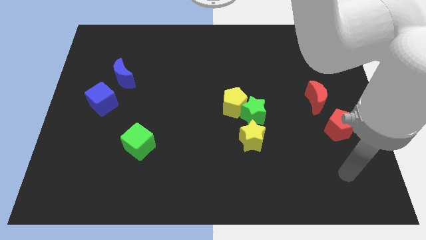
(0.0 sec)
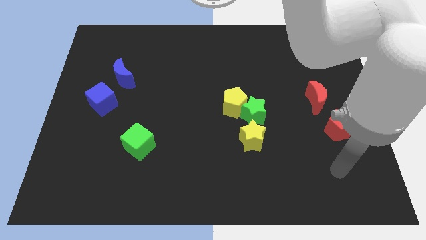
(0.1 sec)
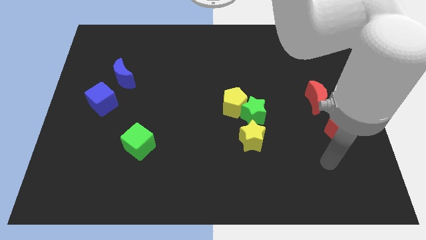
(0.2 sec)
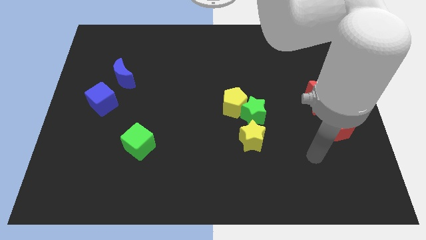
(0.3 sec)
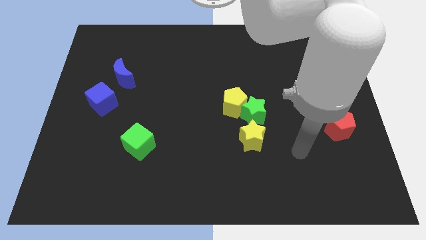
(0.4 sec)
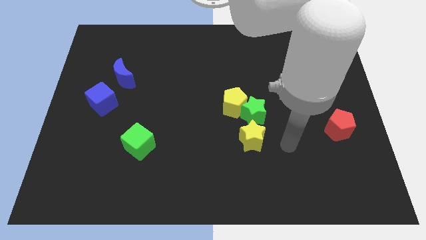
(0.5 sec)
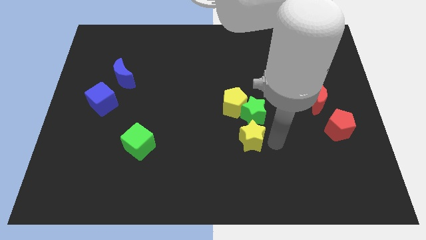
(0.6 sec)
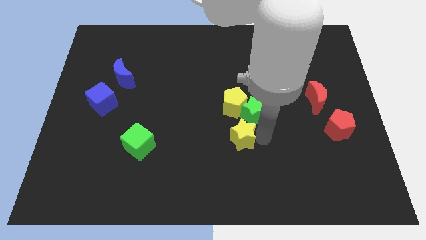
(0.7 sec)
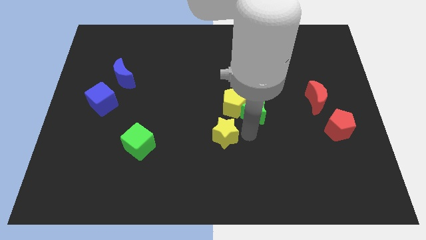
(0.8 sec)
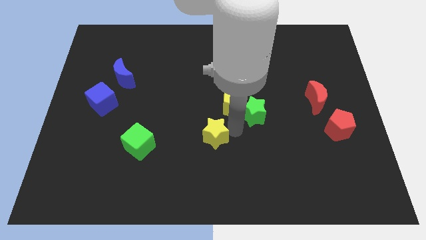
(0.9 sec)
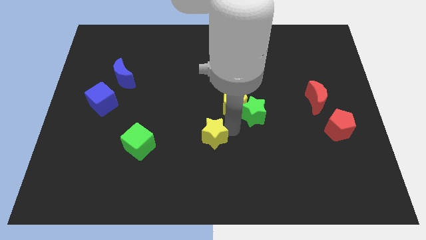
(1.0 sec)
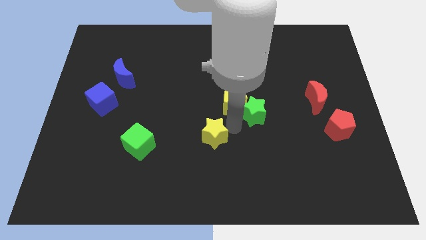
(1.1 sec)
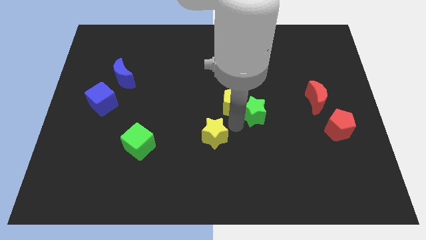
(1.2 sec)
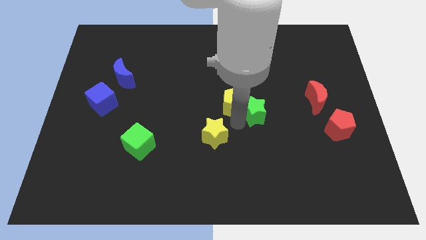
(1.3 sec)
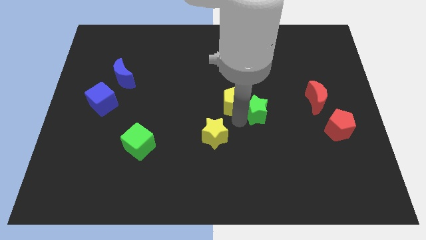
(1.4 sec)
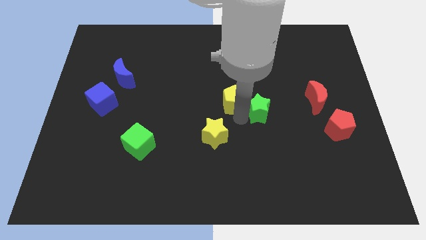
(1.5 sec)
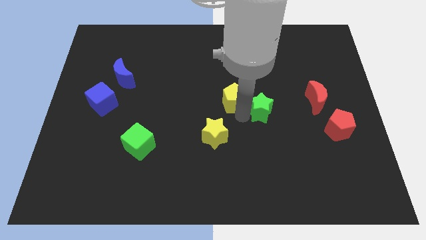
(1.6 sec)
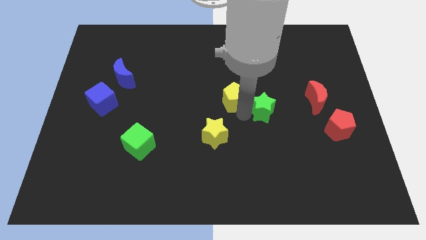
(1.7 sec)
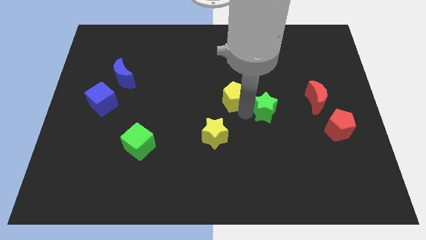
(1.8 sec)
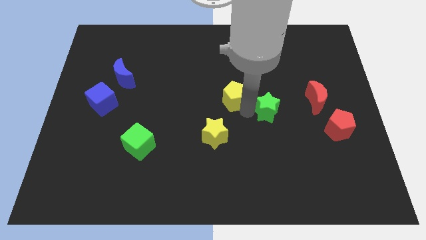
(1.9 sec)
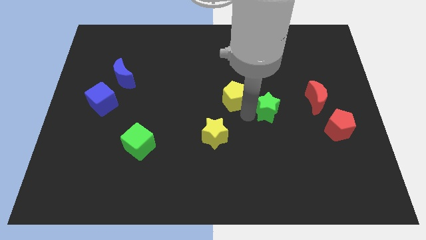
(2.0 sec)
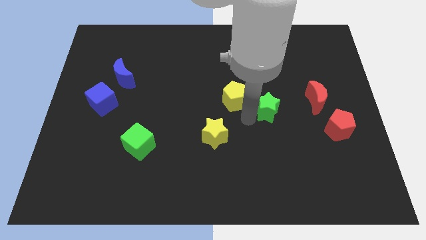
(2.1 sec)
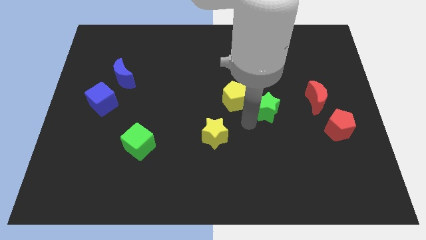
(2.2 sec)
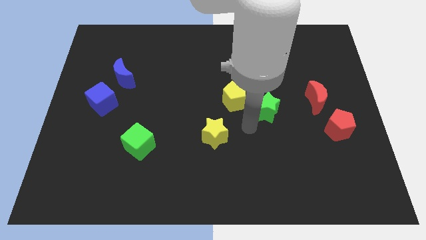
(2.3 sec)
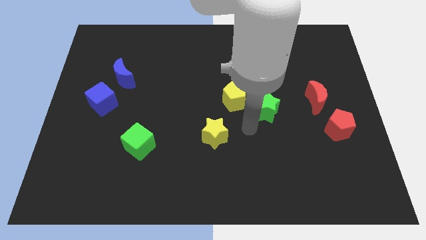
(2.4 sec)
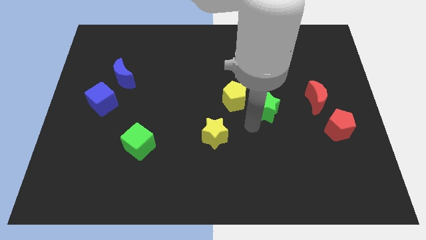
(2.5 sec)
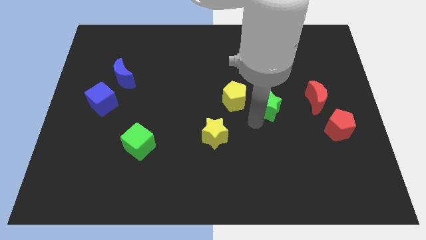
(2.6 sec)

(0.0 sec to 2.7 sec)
pull the green star apart from the yellow pentagon and yellow star

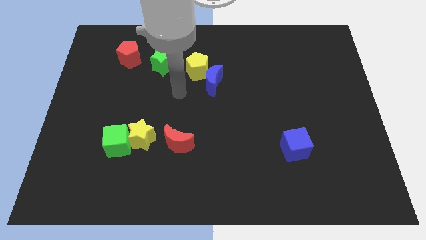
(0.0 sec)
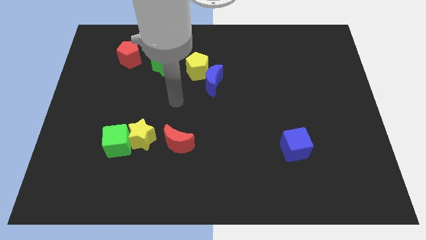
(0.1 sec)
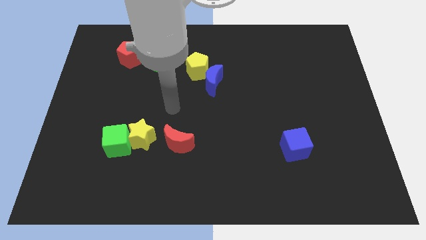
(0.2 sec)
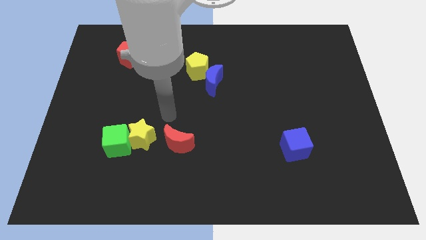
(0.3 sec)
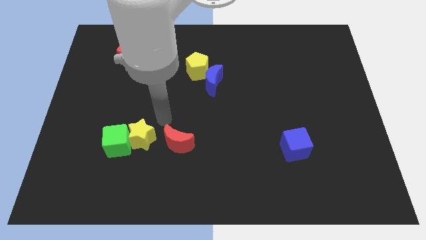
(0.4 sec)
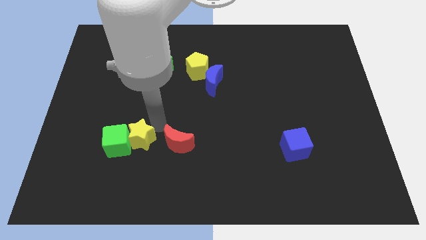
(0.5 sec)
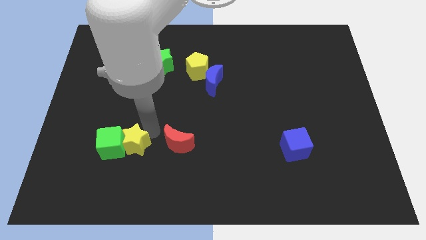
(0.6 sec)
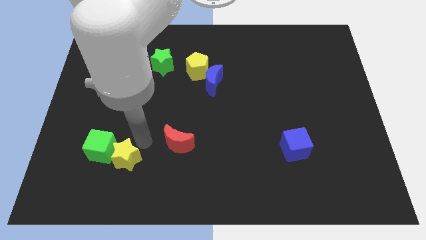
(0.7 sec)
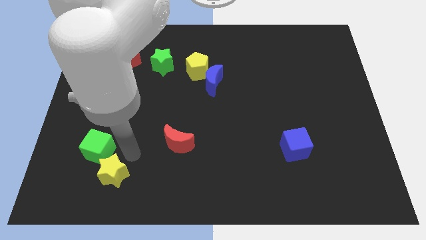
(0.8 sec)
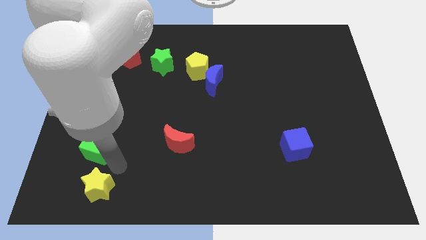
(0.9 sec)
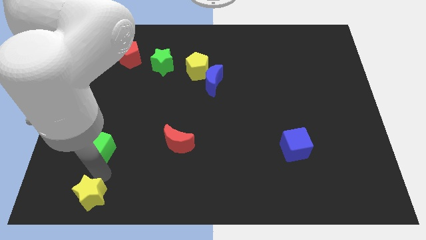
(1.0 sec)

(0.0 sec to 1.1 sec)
move the green cube away from the yellow star

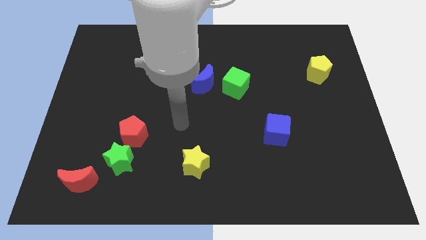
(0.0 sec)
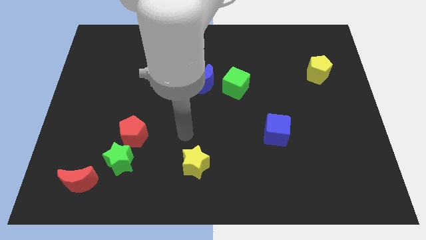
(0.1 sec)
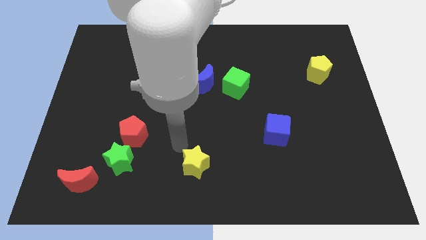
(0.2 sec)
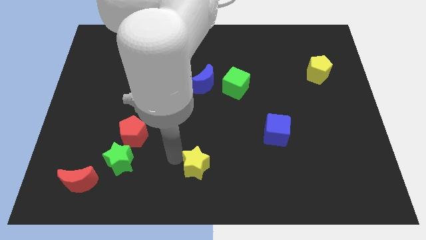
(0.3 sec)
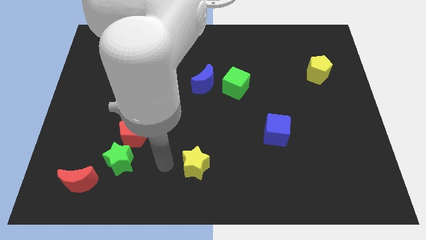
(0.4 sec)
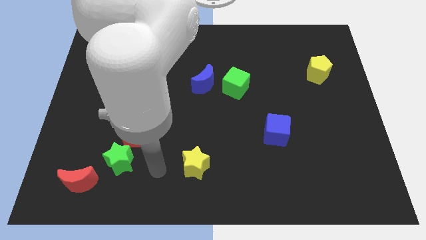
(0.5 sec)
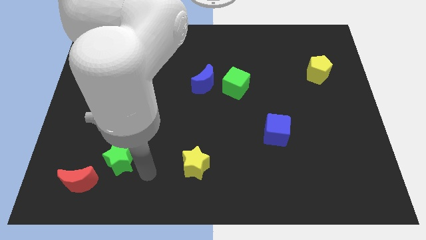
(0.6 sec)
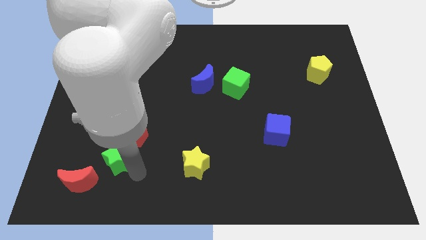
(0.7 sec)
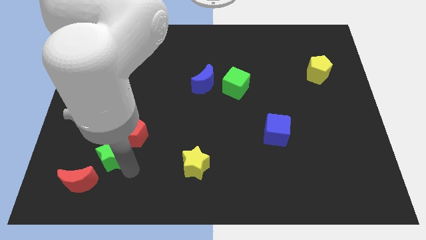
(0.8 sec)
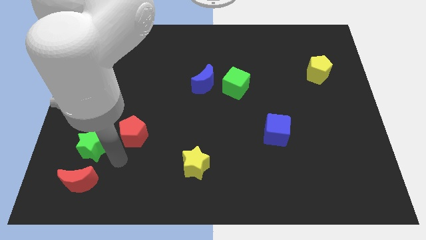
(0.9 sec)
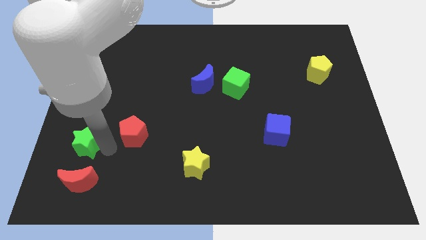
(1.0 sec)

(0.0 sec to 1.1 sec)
move the red pentagon away from the green star

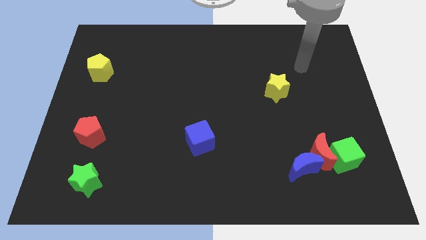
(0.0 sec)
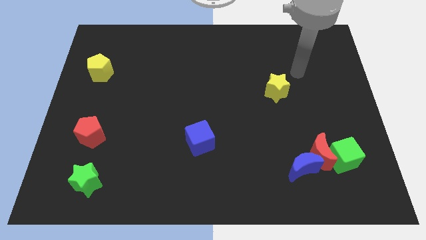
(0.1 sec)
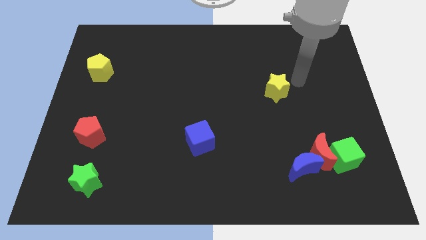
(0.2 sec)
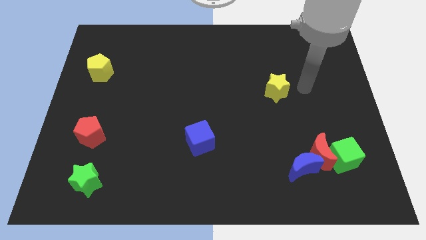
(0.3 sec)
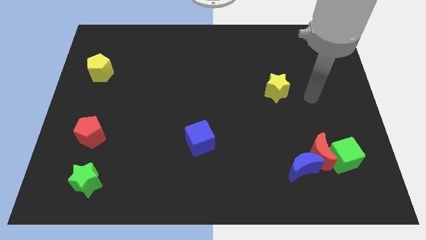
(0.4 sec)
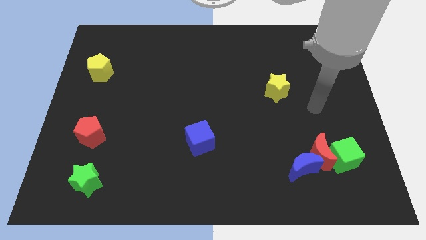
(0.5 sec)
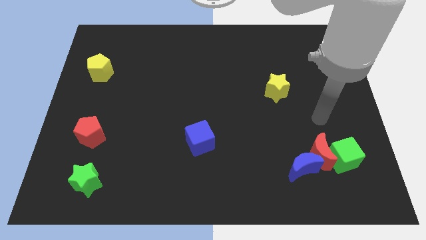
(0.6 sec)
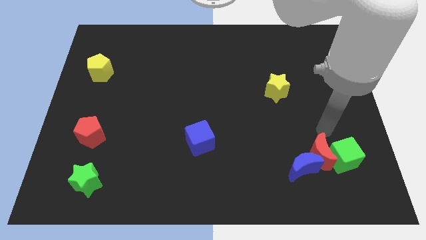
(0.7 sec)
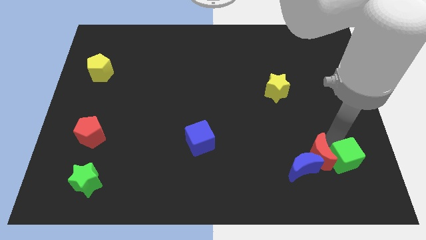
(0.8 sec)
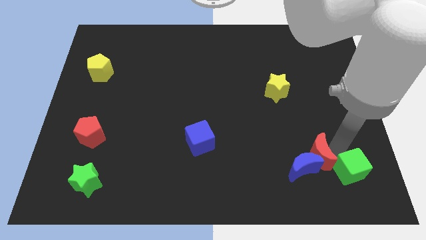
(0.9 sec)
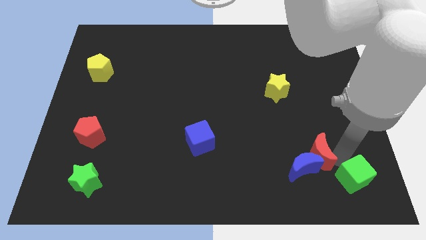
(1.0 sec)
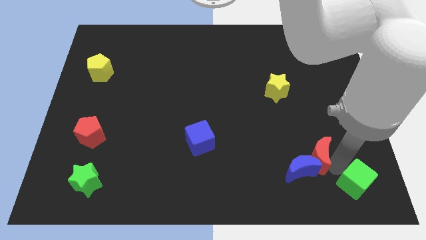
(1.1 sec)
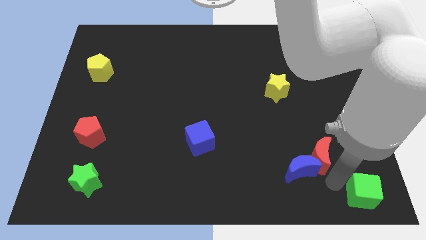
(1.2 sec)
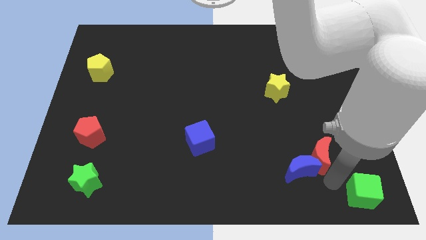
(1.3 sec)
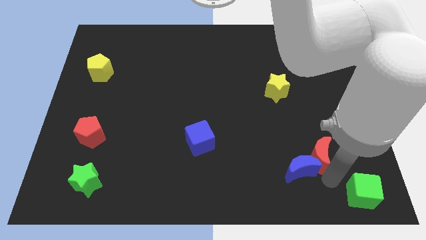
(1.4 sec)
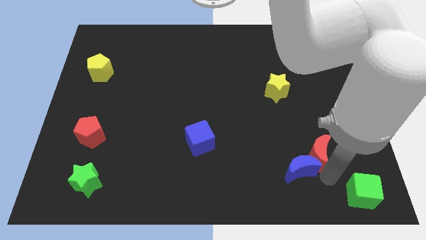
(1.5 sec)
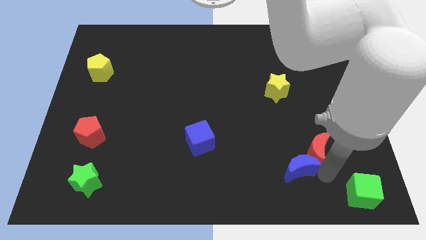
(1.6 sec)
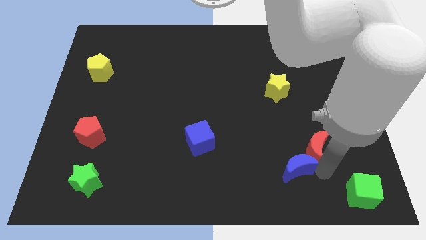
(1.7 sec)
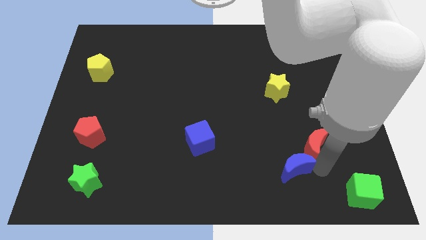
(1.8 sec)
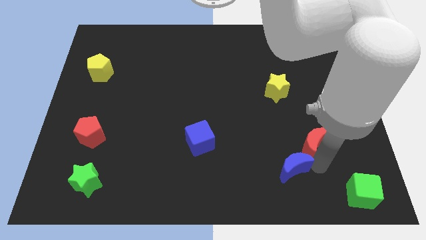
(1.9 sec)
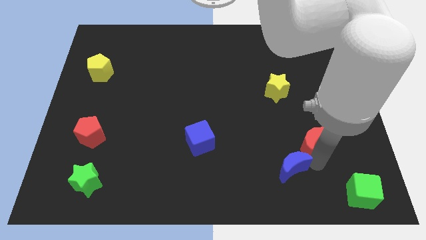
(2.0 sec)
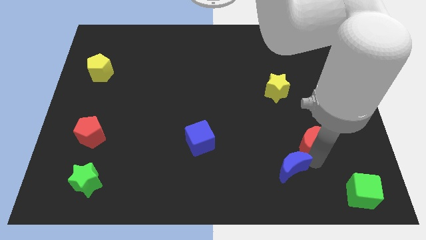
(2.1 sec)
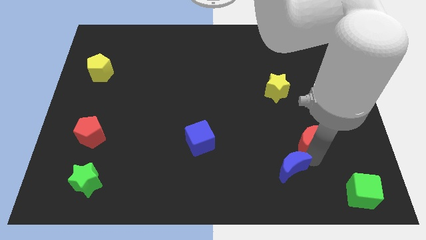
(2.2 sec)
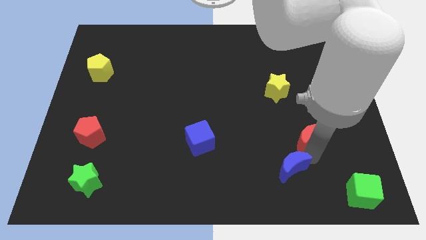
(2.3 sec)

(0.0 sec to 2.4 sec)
move the red moon away from the green cube and blue moon

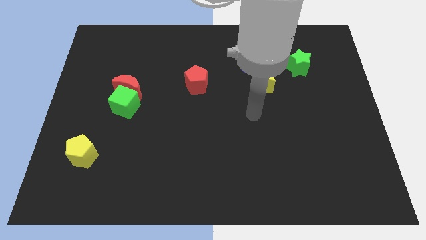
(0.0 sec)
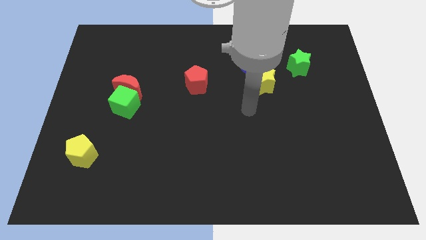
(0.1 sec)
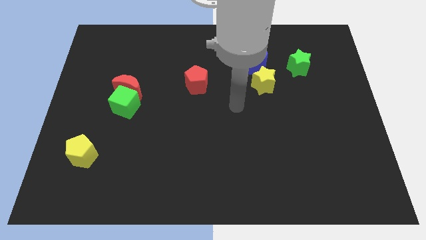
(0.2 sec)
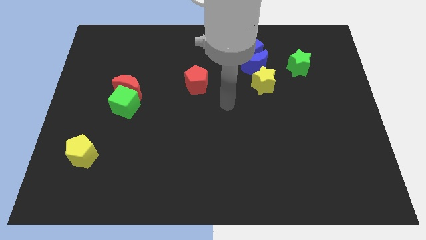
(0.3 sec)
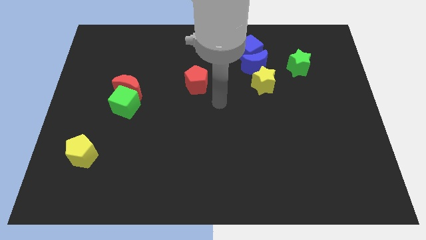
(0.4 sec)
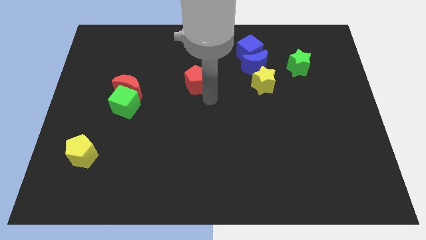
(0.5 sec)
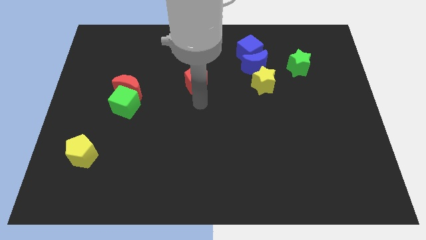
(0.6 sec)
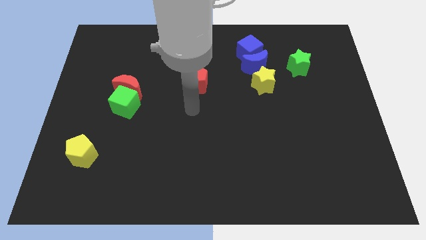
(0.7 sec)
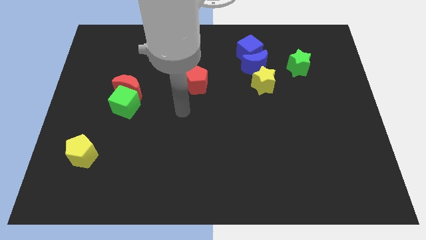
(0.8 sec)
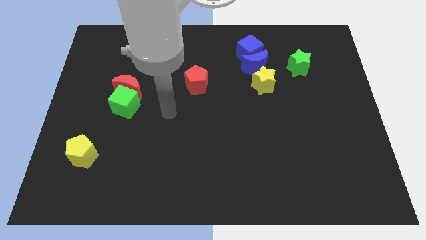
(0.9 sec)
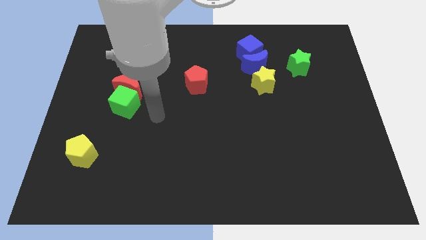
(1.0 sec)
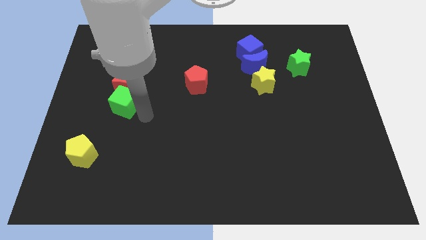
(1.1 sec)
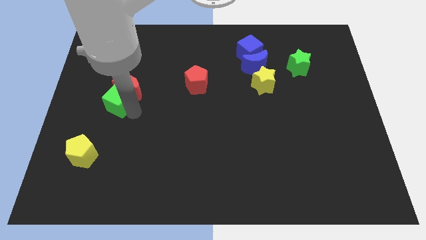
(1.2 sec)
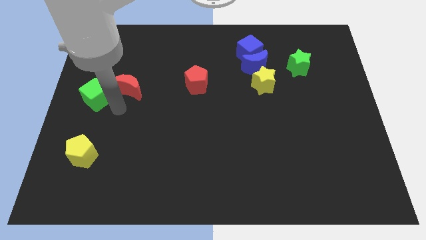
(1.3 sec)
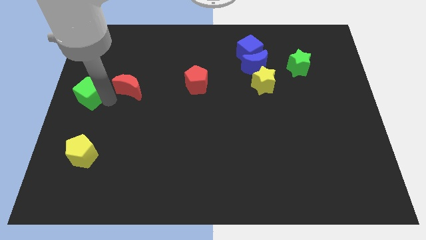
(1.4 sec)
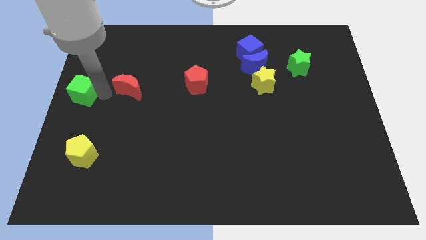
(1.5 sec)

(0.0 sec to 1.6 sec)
pull the red moon apart from the green cube

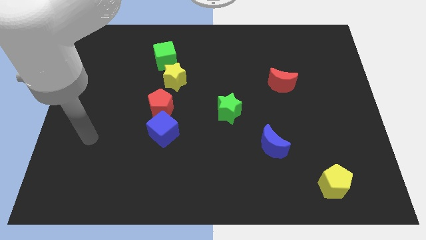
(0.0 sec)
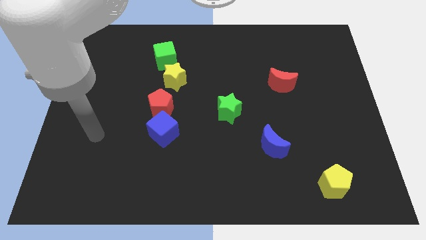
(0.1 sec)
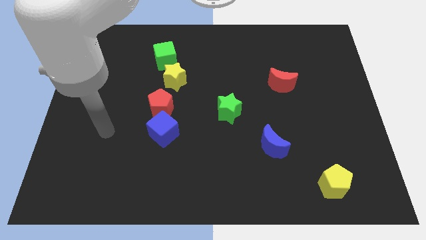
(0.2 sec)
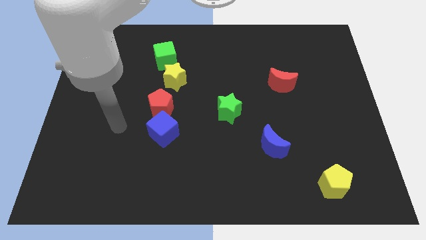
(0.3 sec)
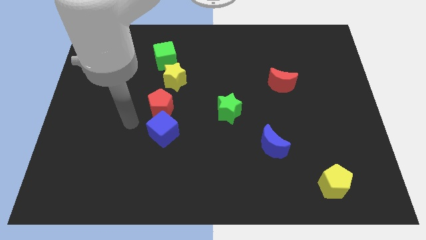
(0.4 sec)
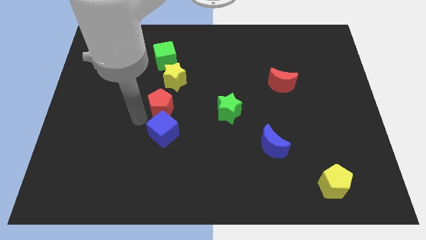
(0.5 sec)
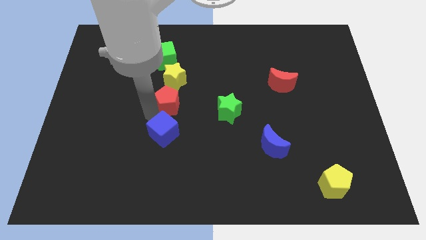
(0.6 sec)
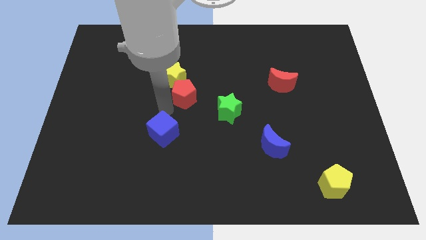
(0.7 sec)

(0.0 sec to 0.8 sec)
move the blue cube away from the red pentagon
